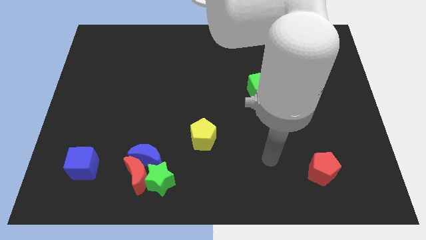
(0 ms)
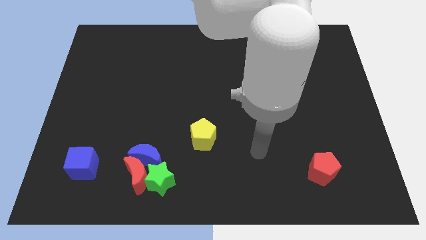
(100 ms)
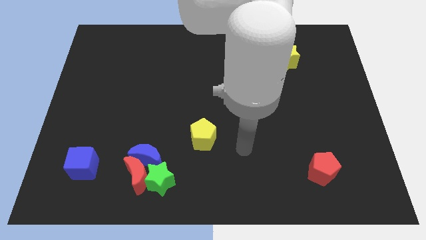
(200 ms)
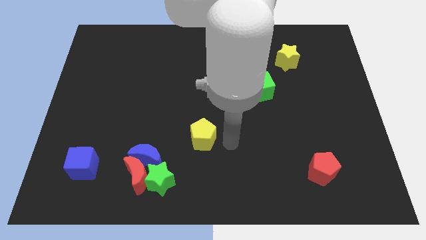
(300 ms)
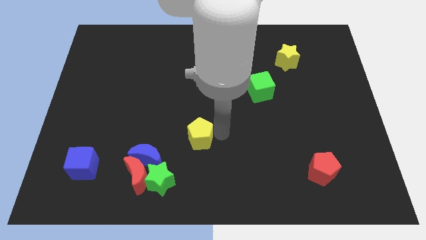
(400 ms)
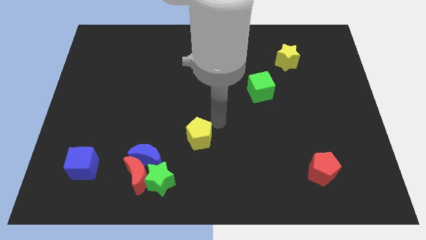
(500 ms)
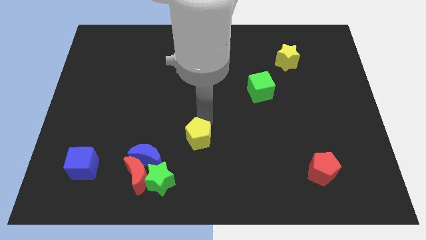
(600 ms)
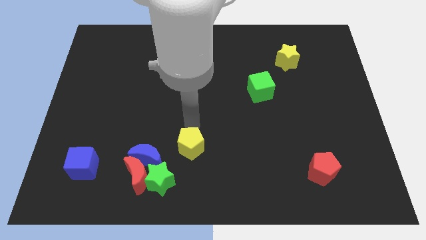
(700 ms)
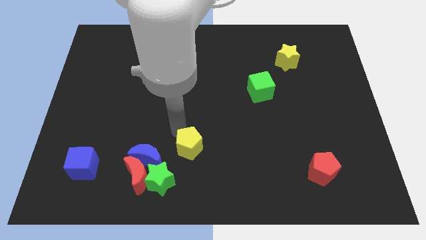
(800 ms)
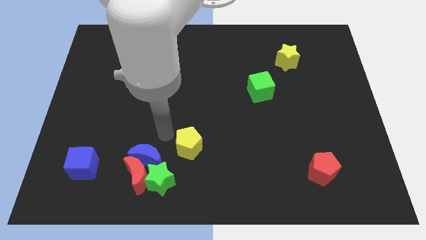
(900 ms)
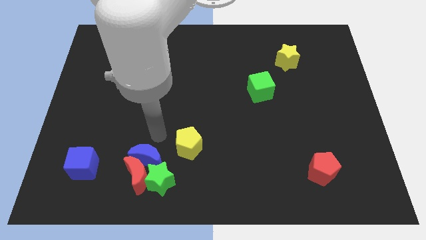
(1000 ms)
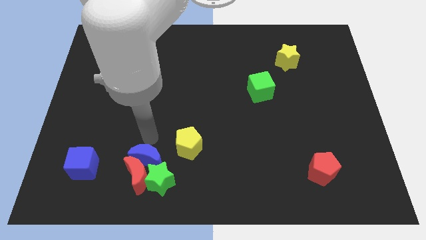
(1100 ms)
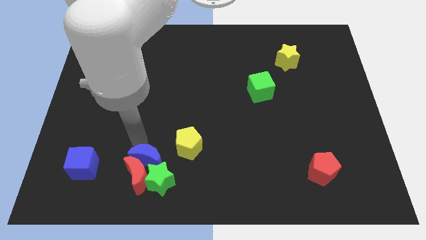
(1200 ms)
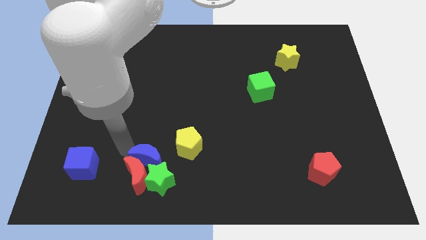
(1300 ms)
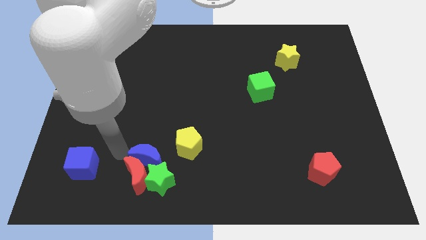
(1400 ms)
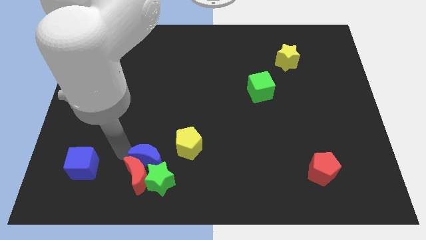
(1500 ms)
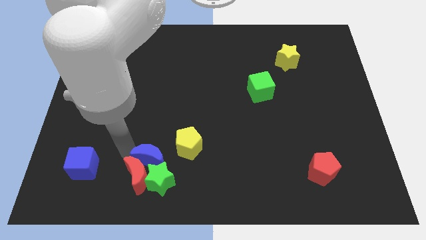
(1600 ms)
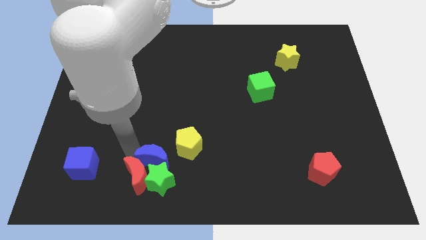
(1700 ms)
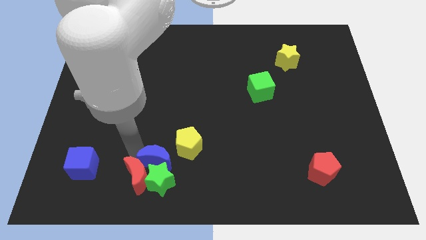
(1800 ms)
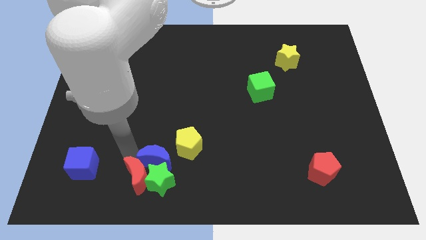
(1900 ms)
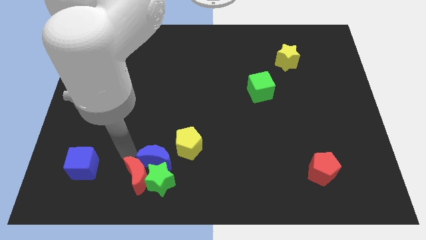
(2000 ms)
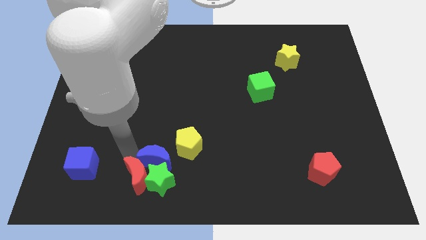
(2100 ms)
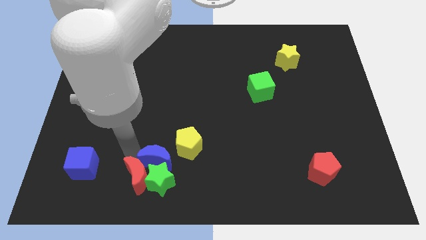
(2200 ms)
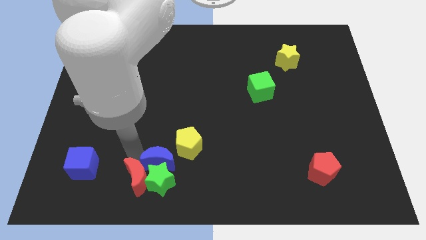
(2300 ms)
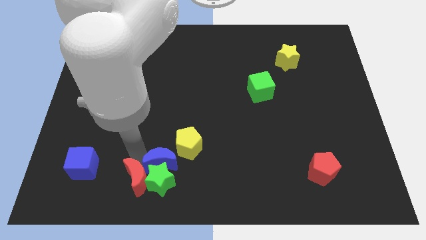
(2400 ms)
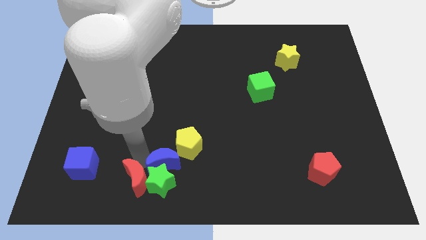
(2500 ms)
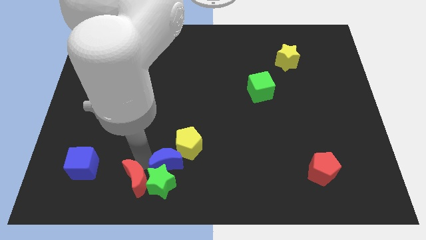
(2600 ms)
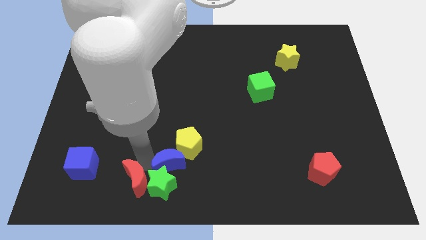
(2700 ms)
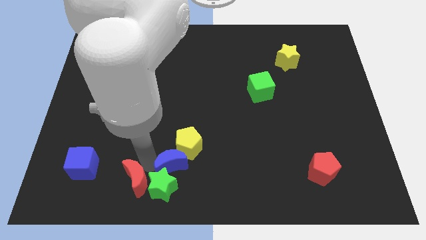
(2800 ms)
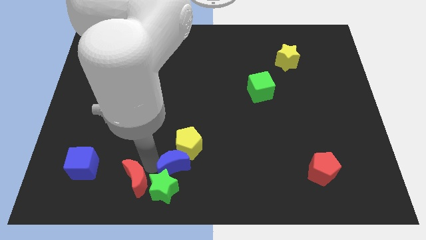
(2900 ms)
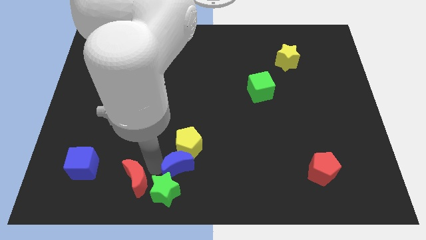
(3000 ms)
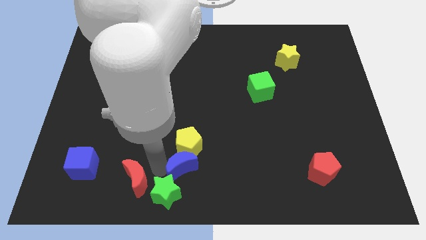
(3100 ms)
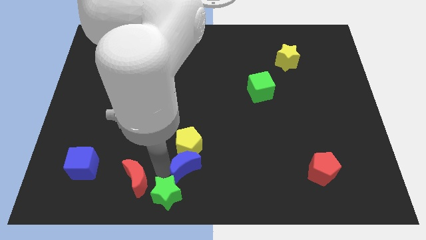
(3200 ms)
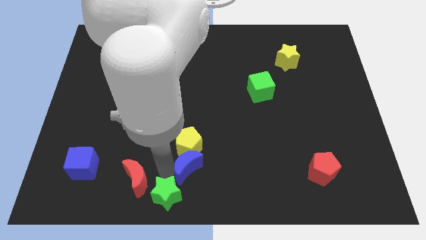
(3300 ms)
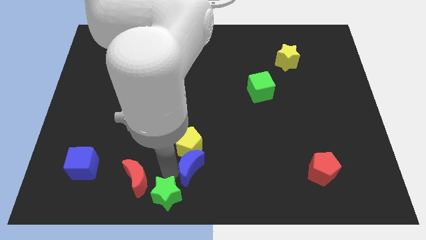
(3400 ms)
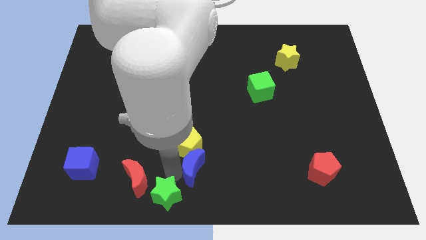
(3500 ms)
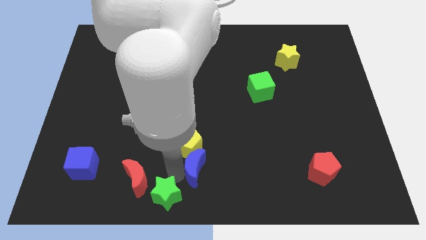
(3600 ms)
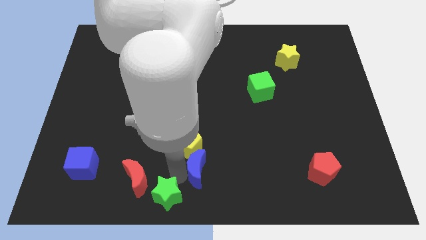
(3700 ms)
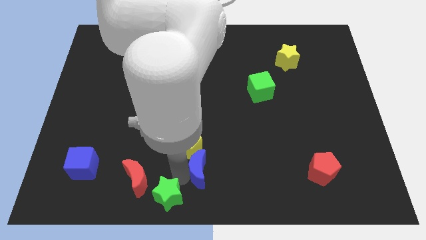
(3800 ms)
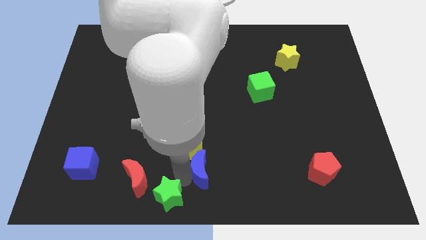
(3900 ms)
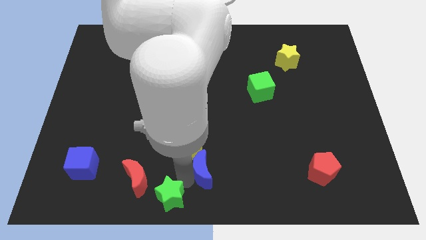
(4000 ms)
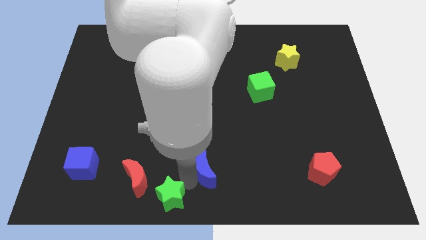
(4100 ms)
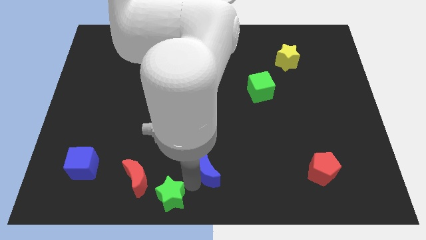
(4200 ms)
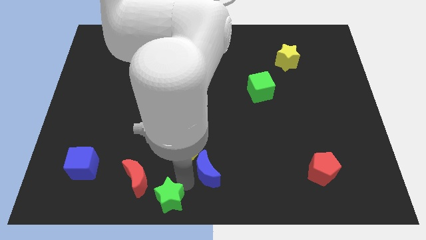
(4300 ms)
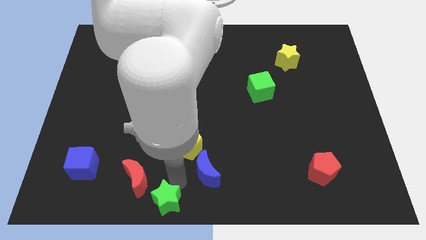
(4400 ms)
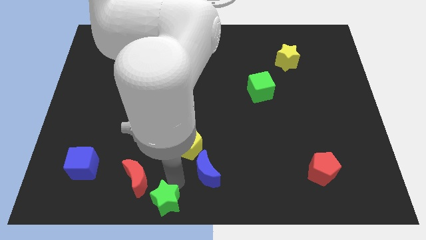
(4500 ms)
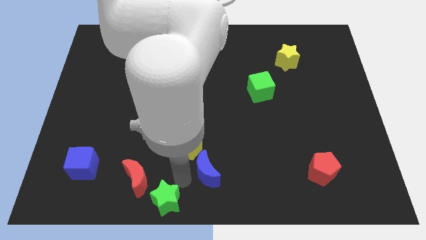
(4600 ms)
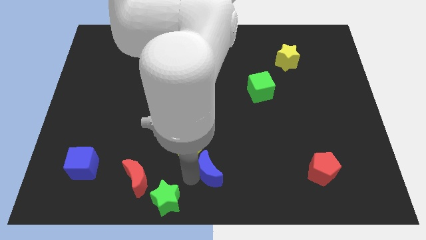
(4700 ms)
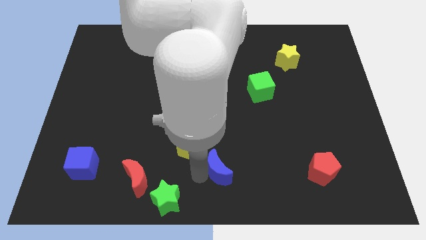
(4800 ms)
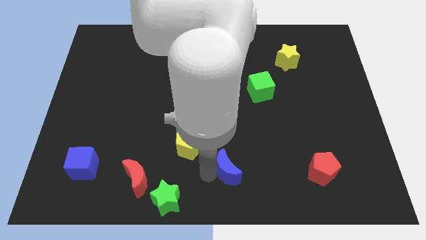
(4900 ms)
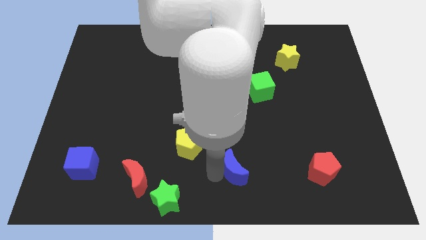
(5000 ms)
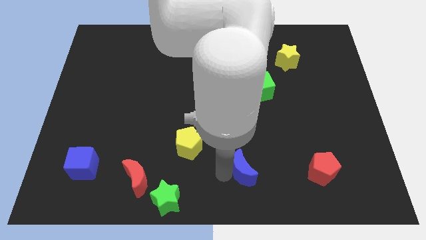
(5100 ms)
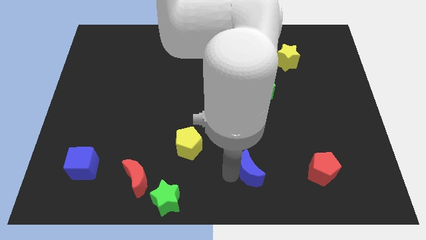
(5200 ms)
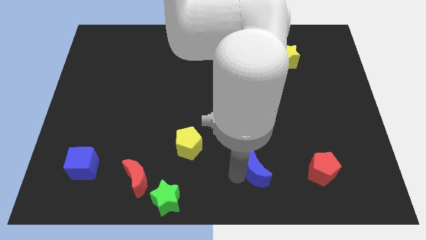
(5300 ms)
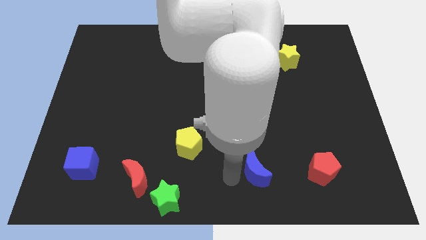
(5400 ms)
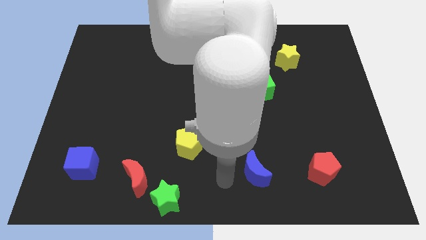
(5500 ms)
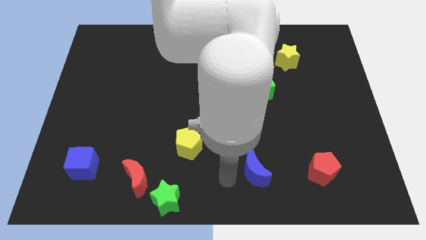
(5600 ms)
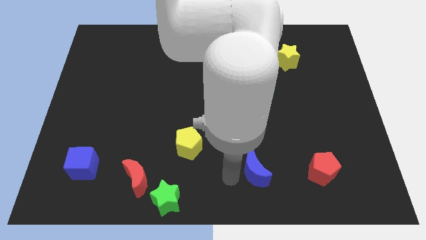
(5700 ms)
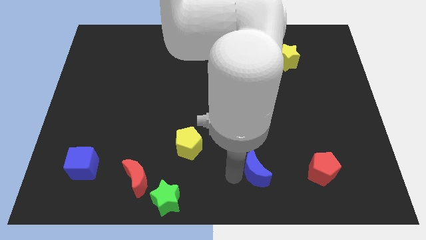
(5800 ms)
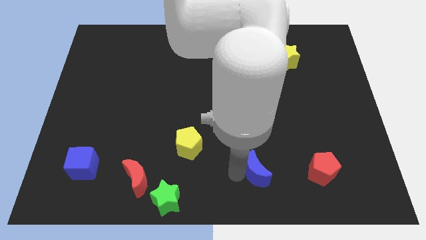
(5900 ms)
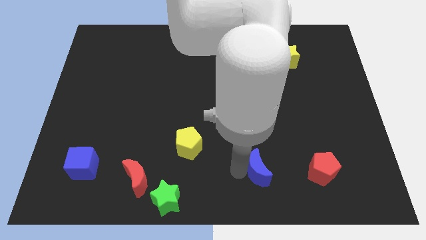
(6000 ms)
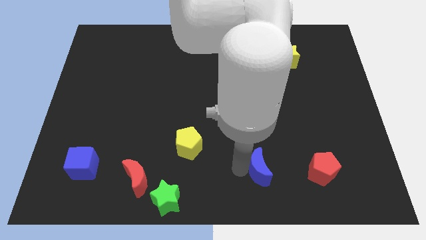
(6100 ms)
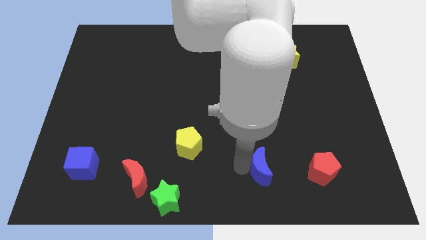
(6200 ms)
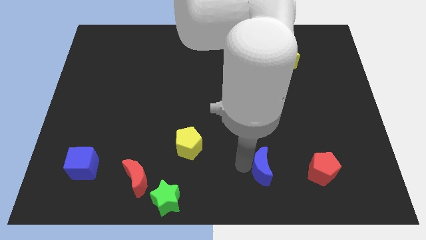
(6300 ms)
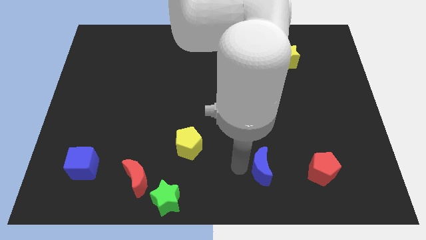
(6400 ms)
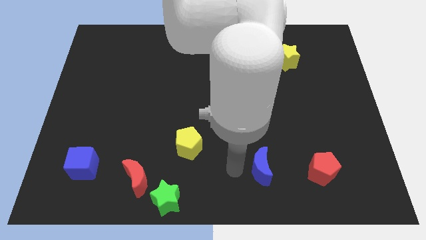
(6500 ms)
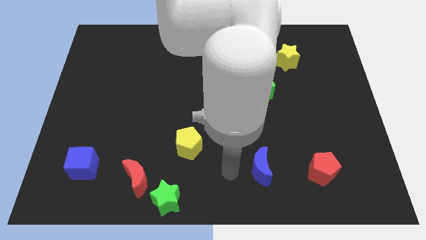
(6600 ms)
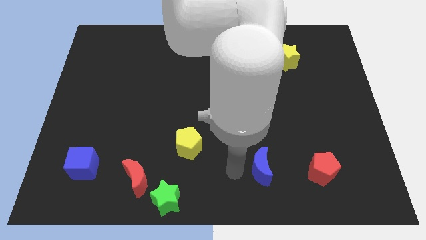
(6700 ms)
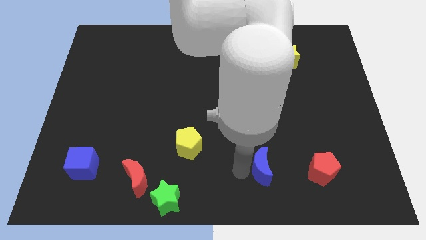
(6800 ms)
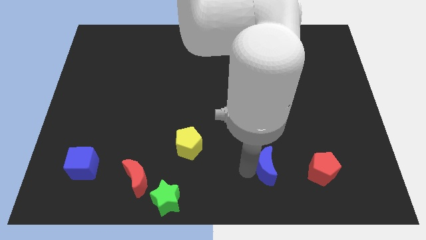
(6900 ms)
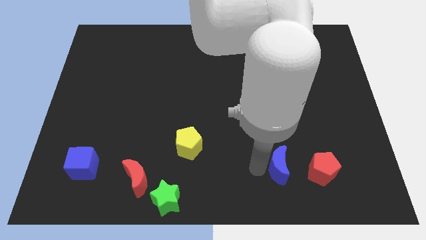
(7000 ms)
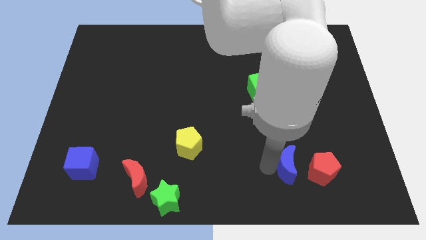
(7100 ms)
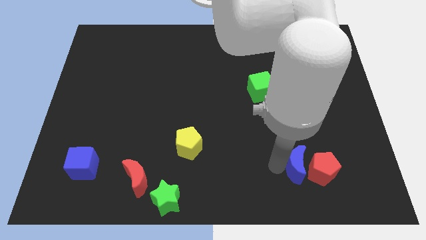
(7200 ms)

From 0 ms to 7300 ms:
push the blue moon to the red pentagon
